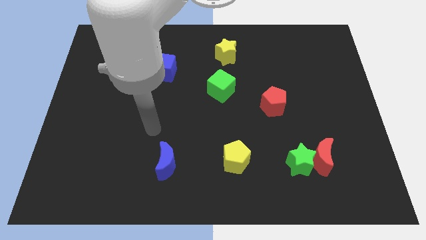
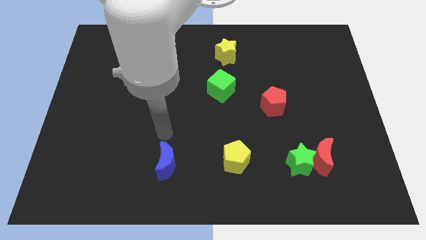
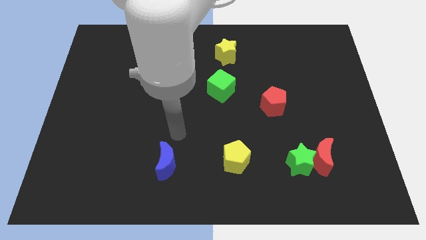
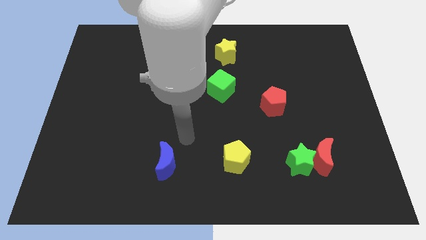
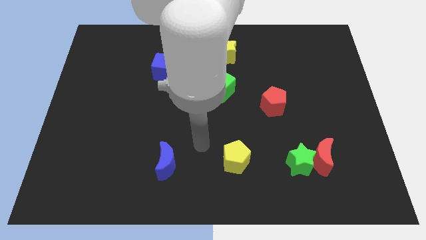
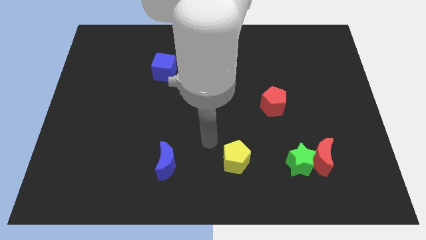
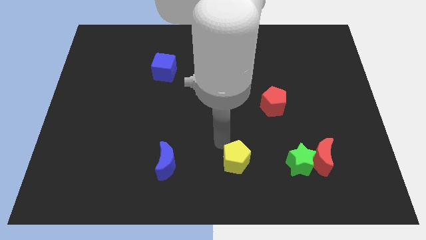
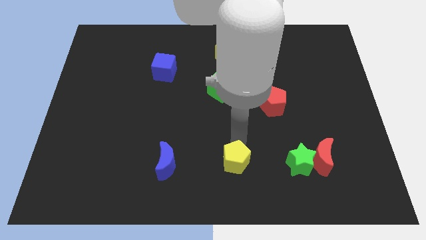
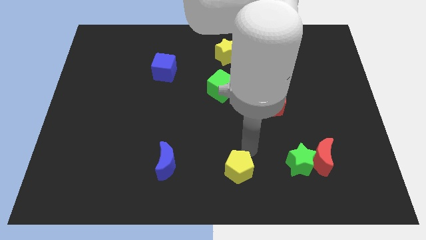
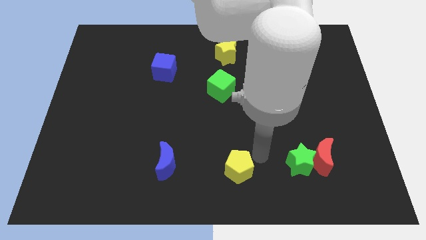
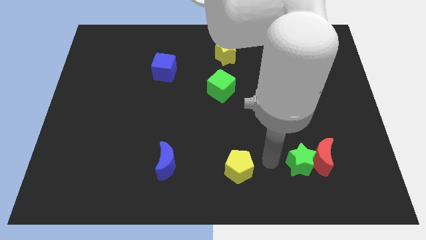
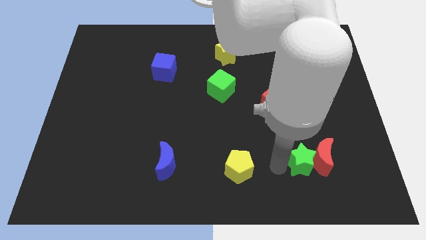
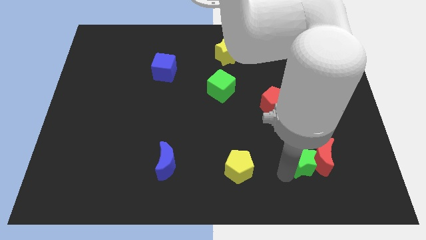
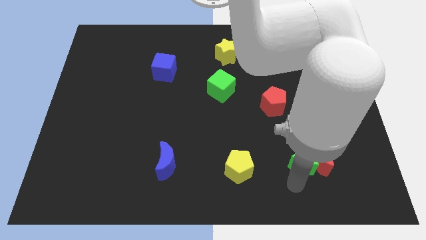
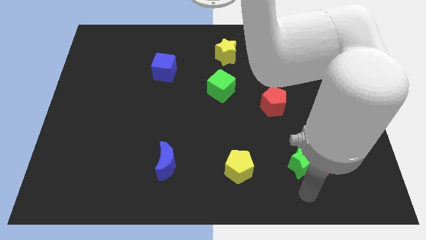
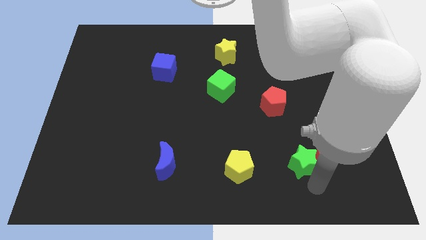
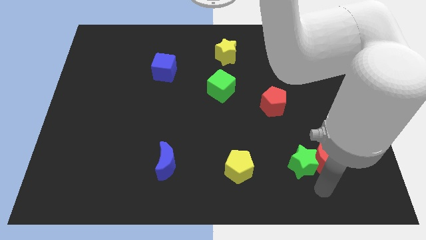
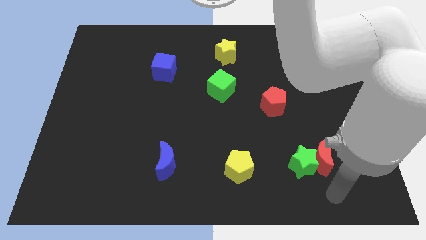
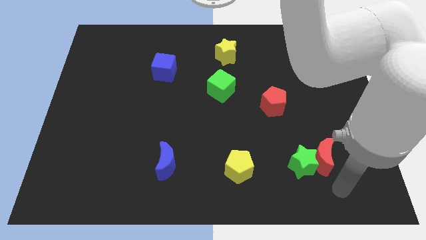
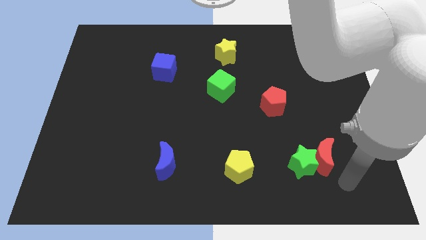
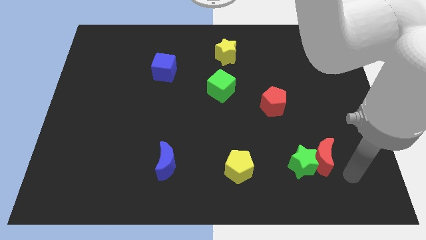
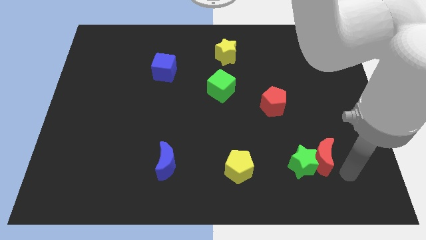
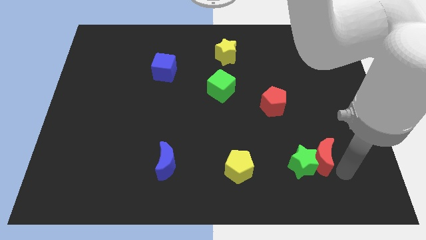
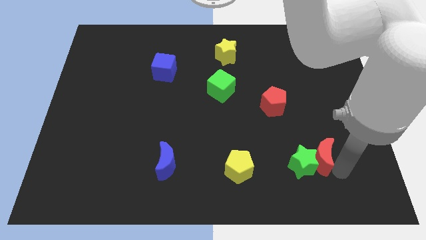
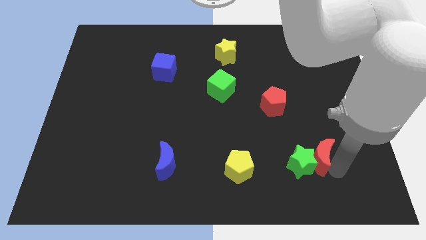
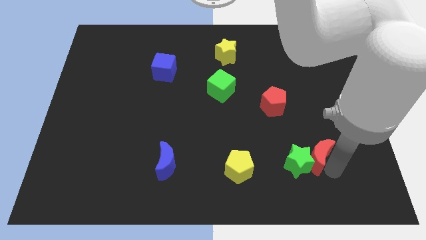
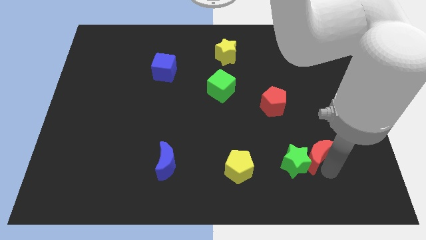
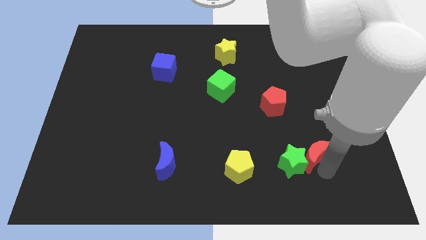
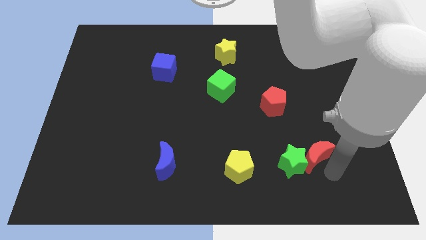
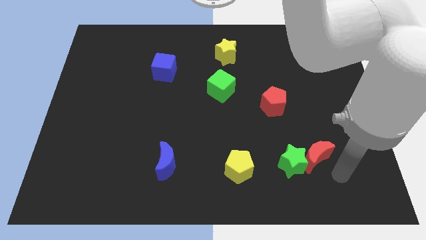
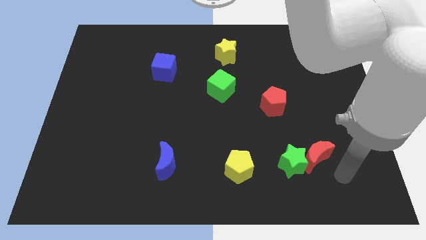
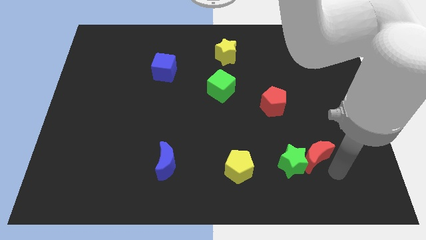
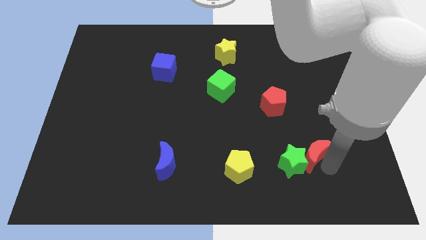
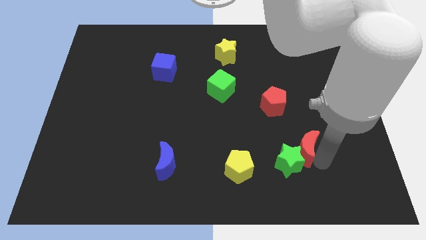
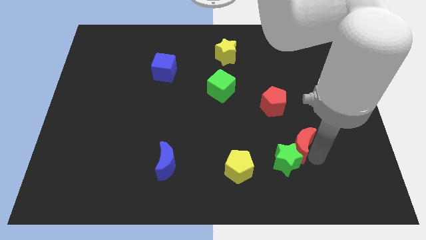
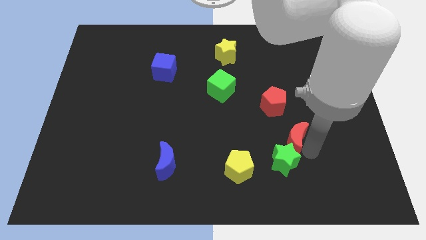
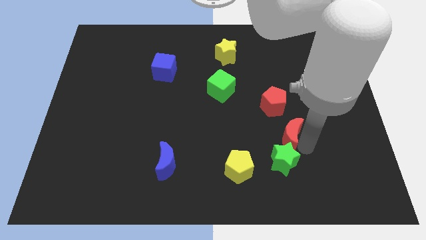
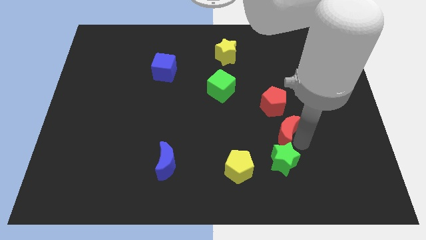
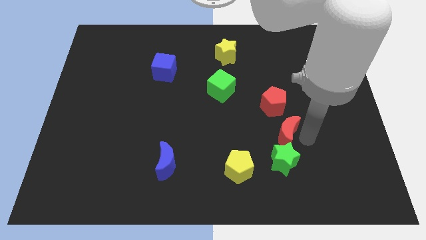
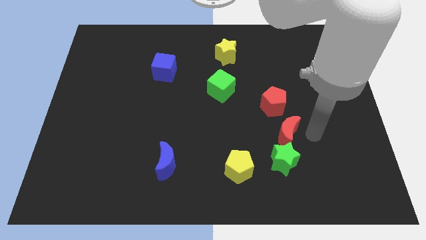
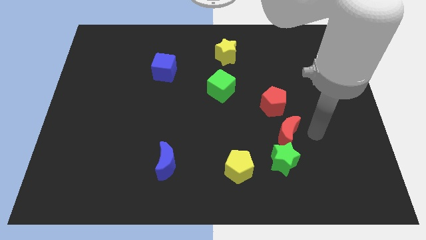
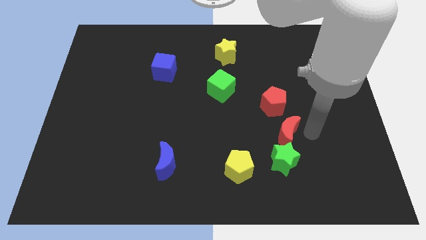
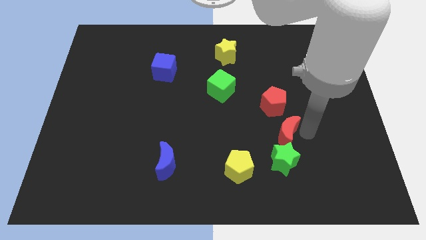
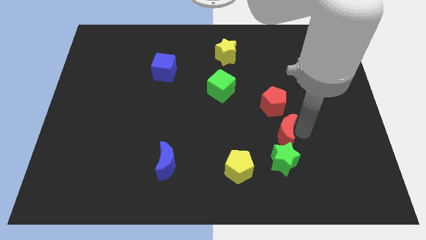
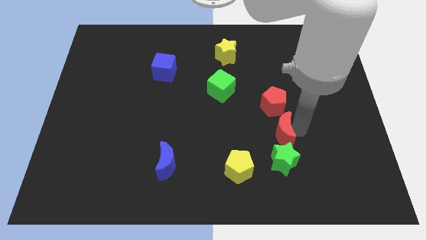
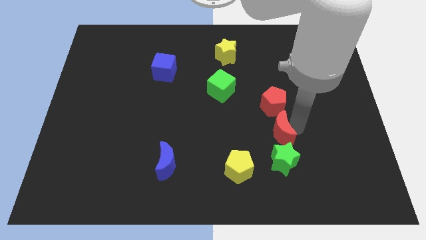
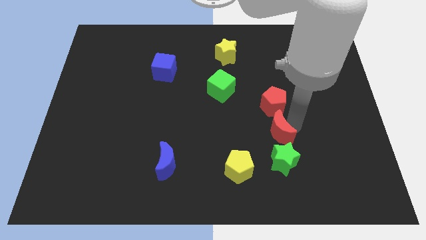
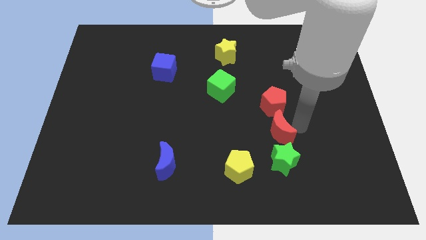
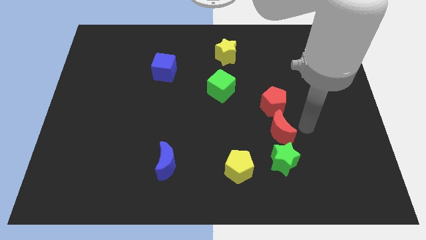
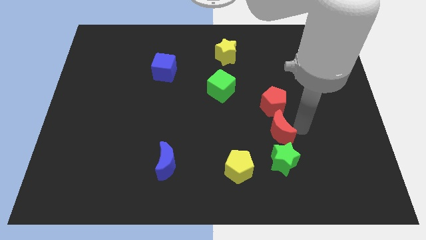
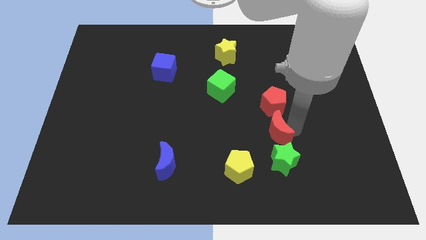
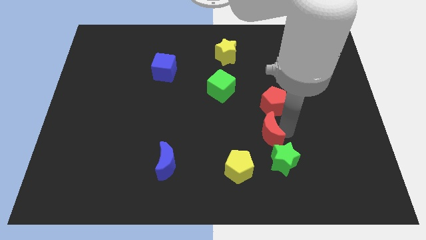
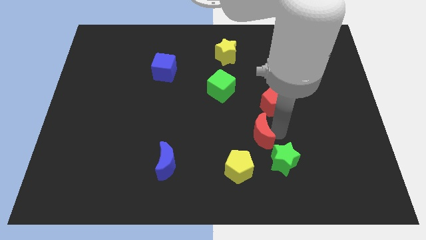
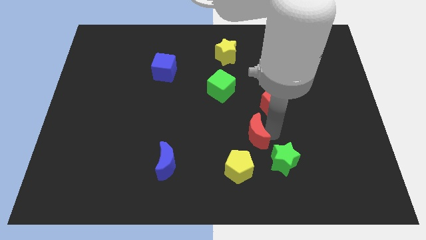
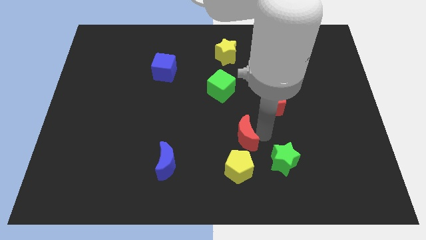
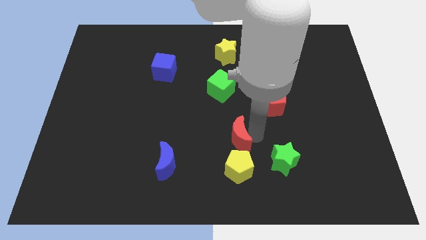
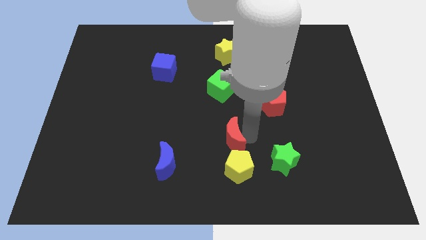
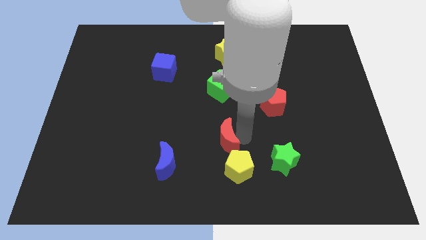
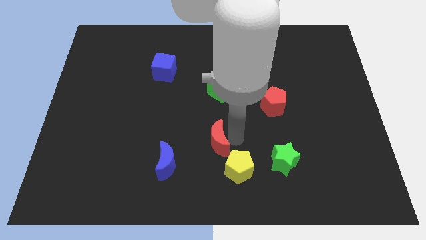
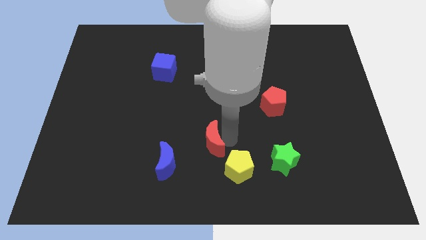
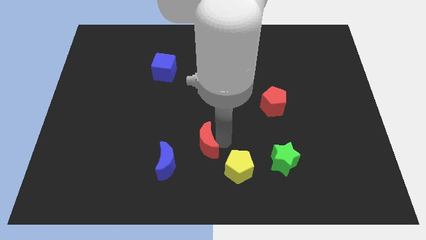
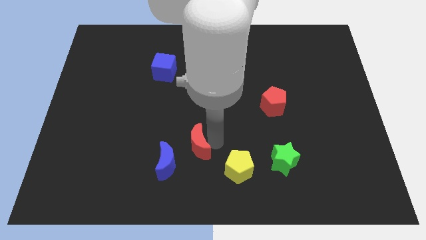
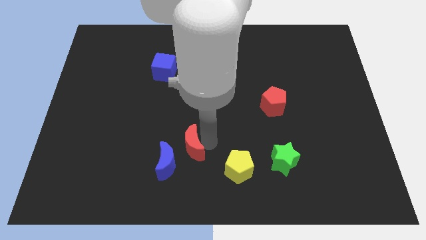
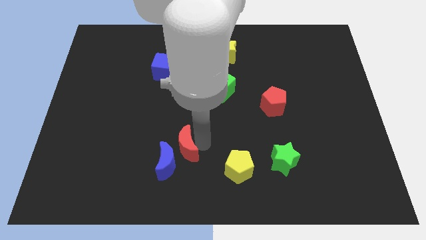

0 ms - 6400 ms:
push the red moon towards the blue moon

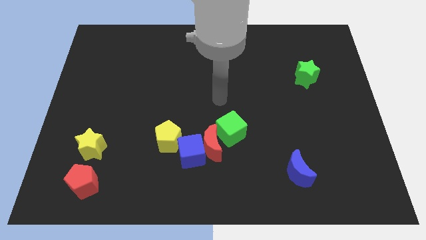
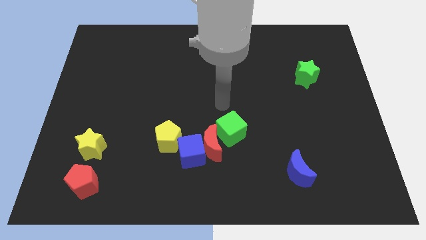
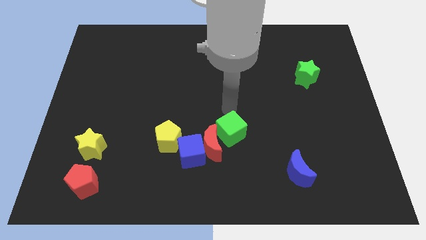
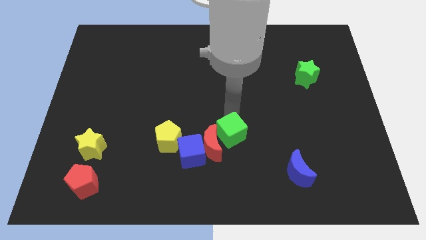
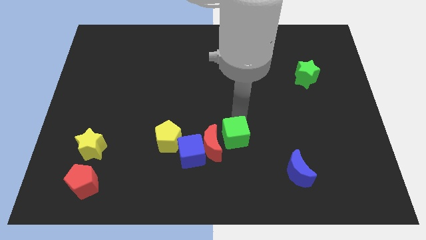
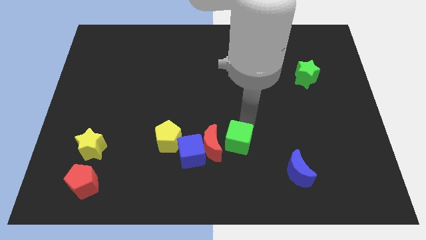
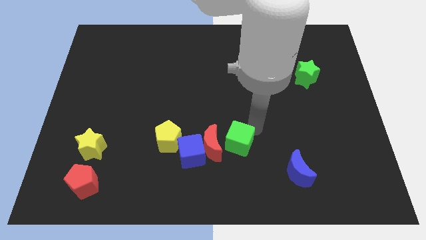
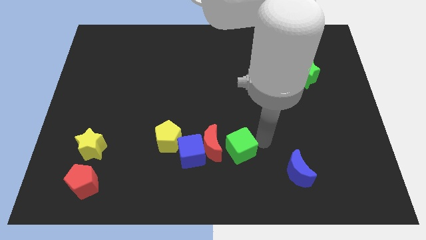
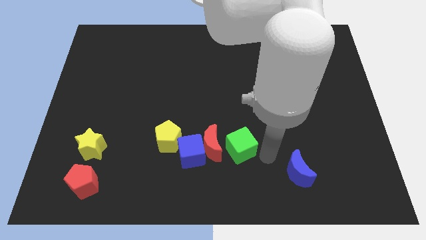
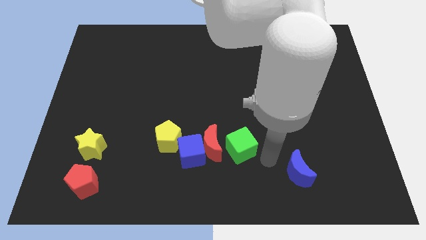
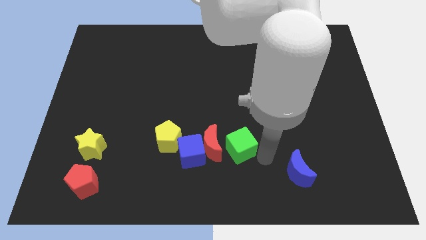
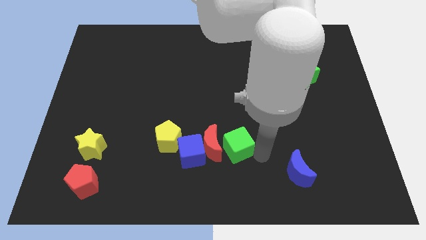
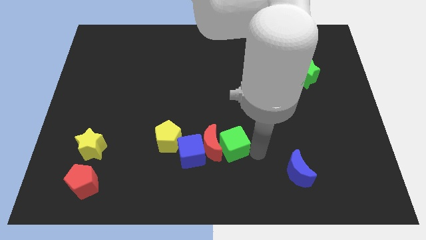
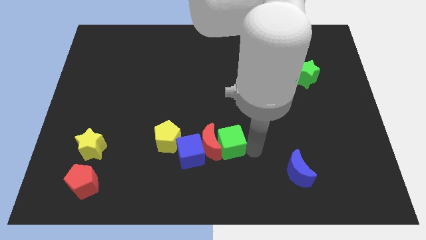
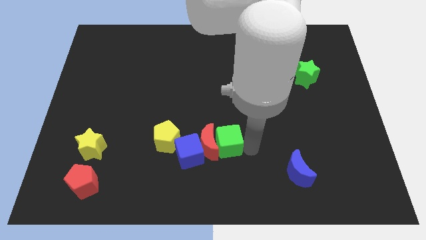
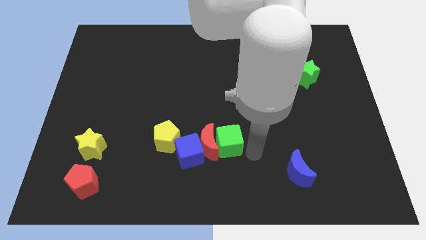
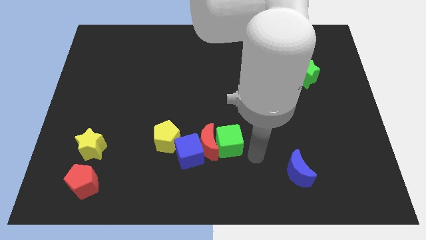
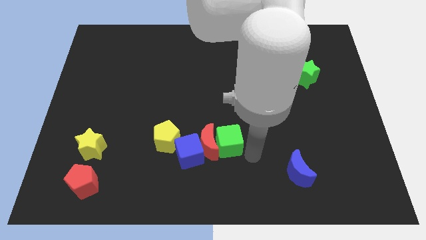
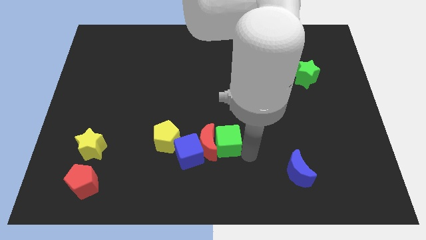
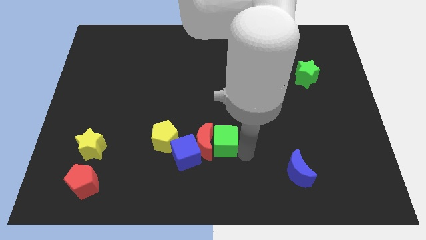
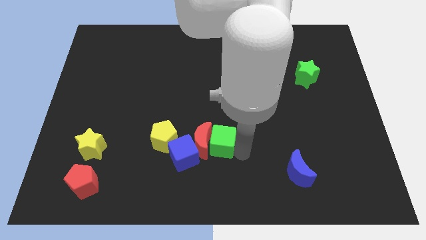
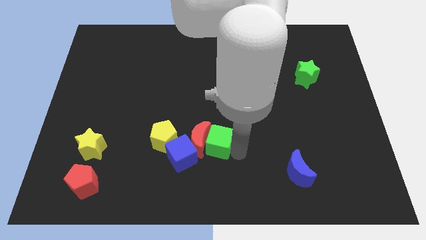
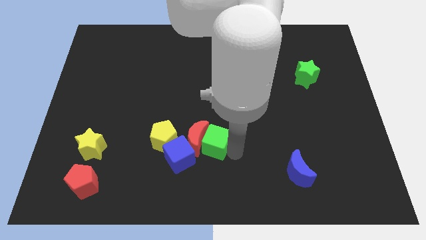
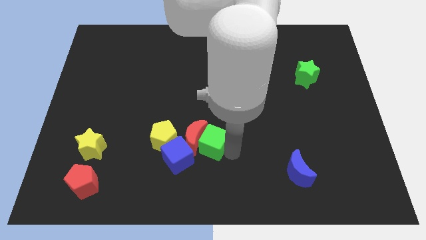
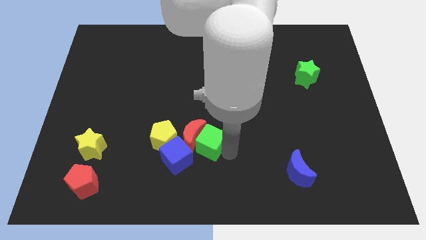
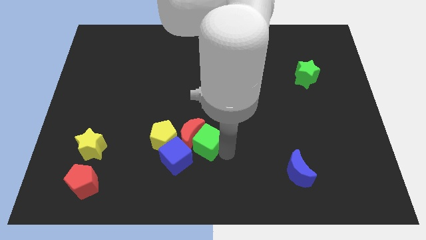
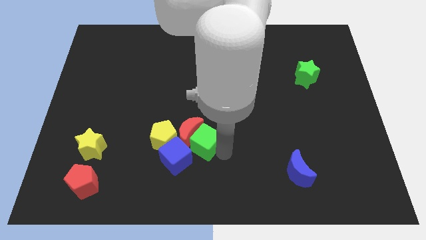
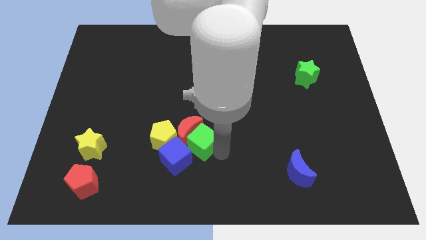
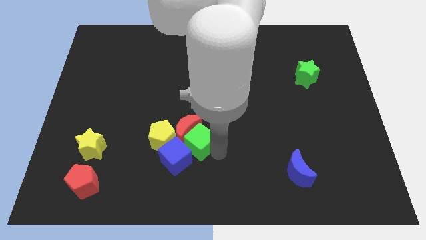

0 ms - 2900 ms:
put the green cube towards the blue cube
